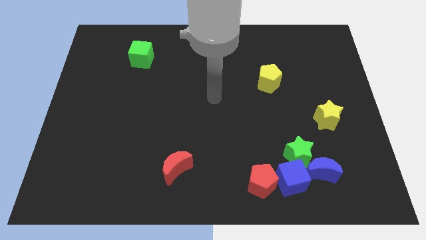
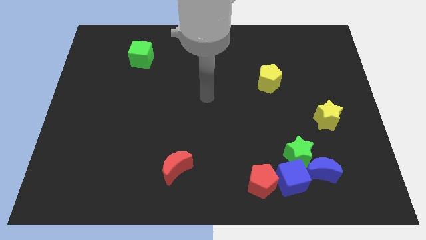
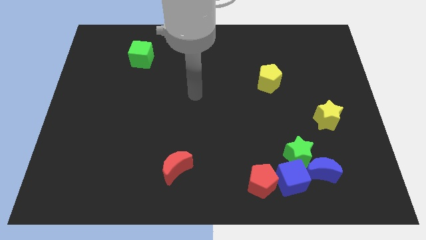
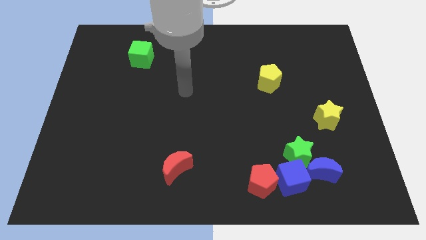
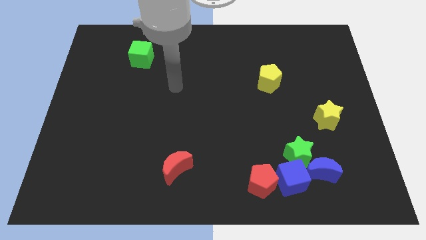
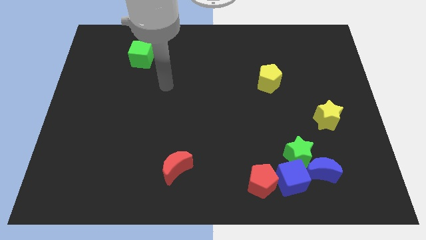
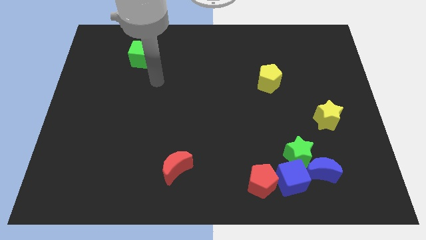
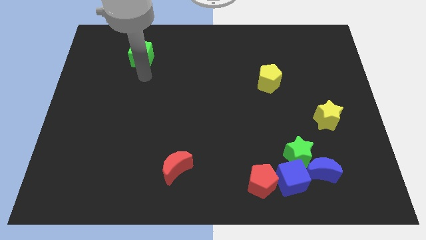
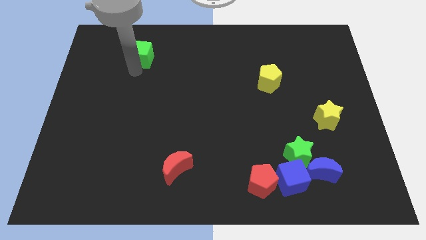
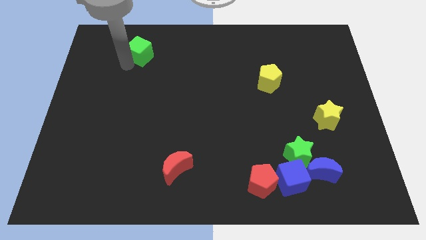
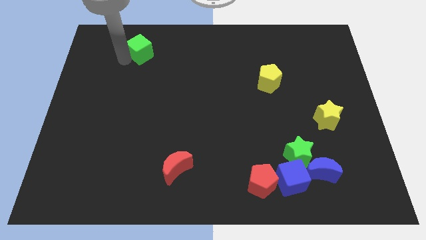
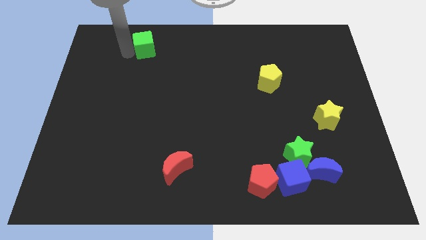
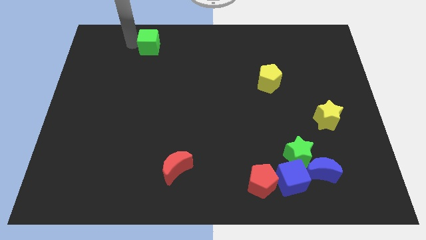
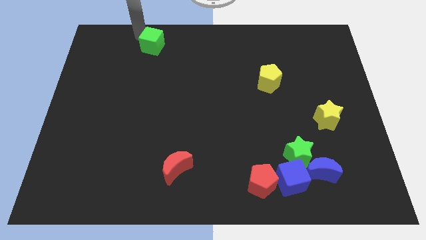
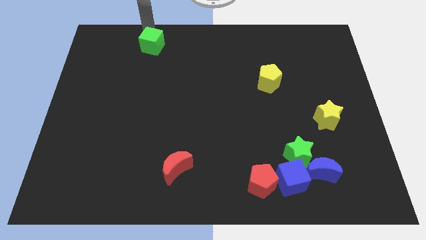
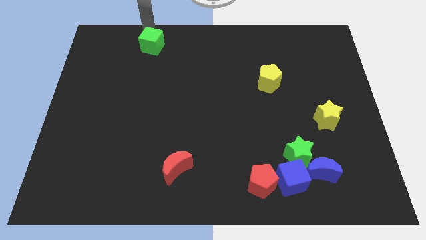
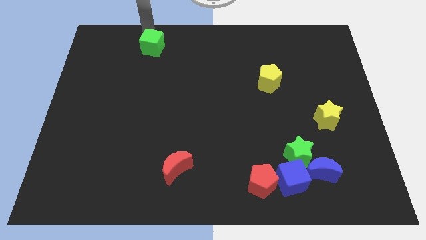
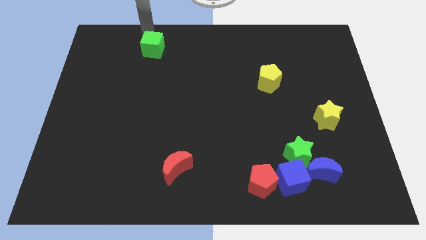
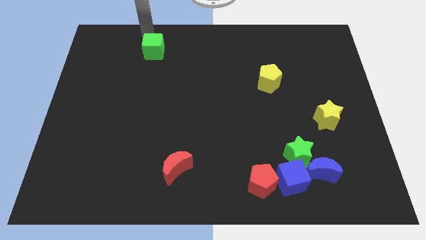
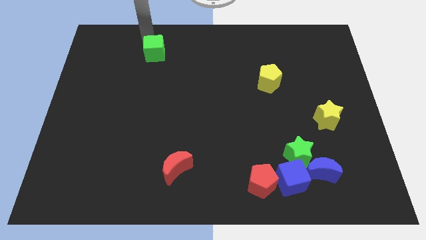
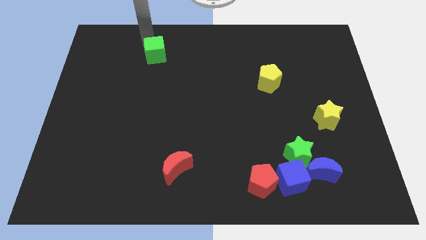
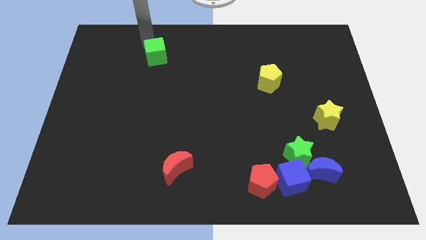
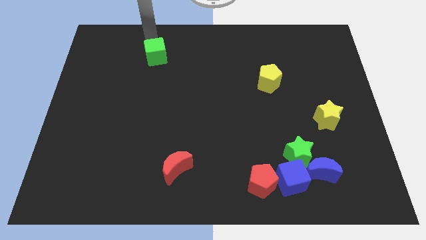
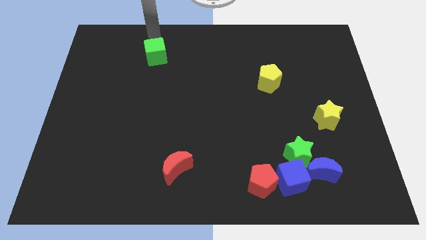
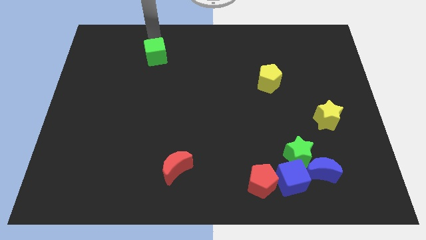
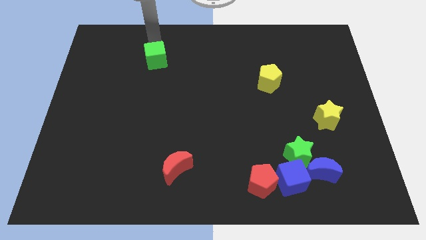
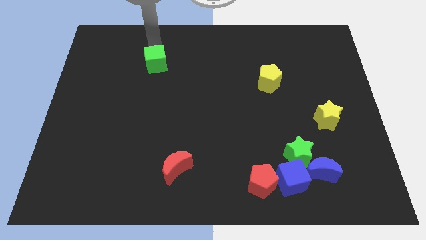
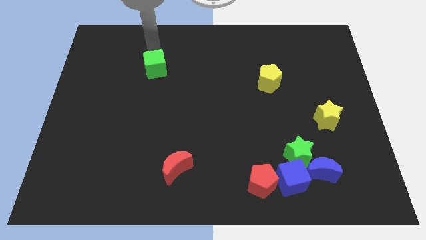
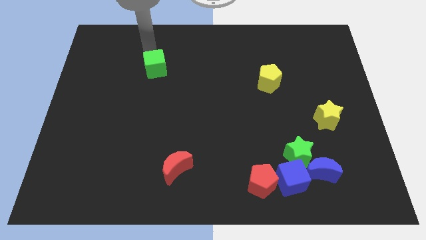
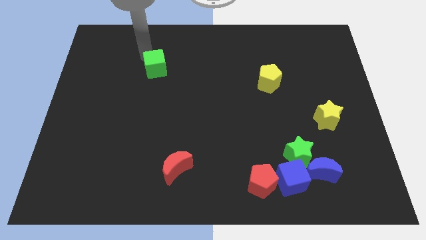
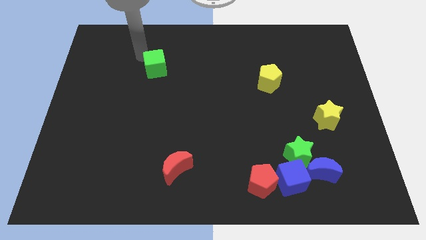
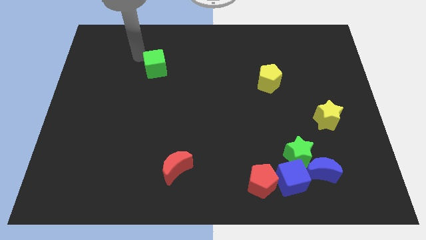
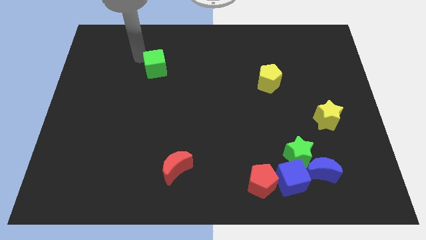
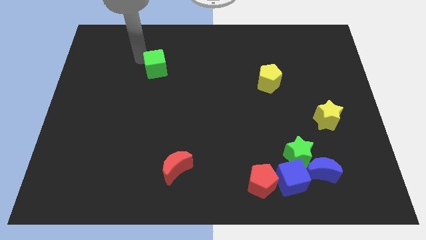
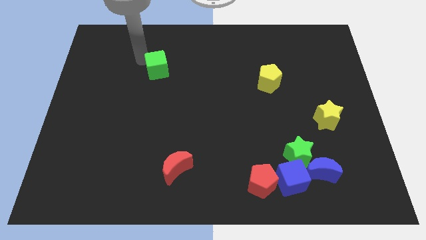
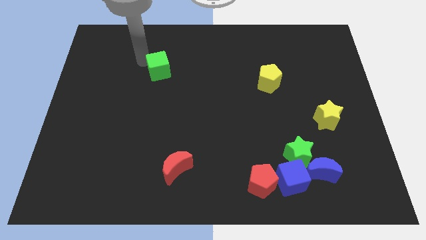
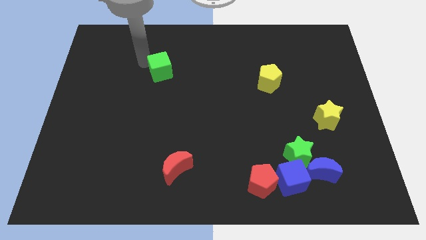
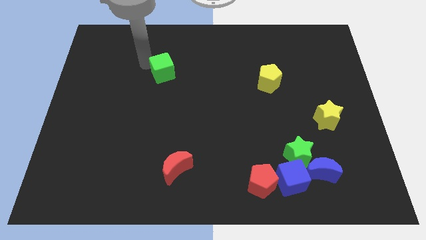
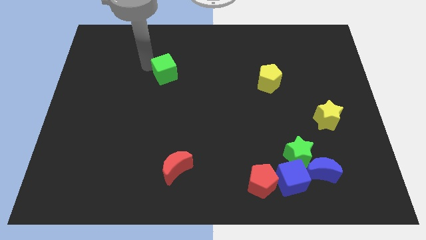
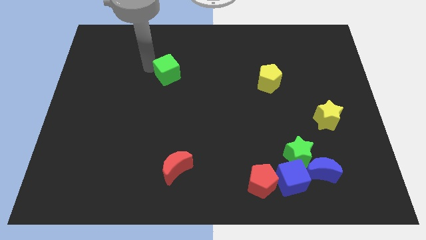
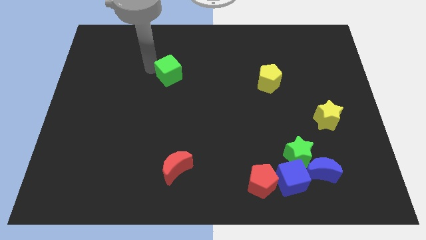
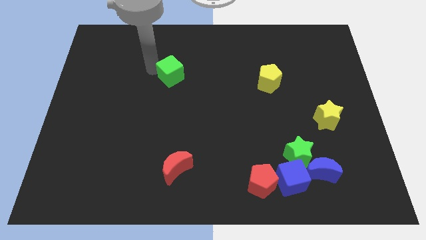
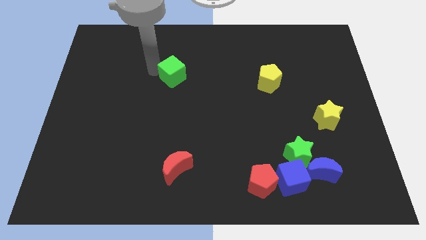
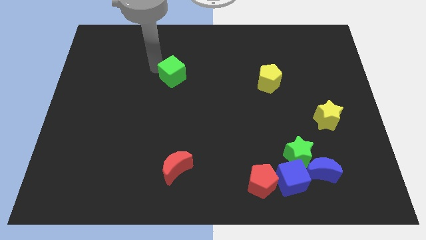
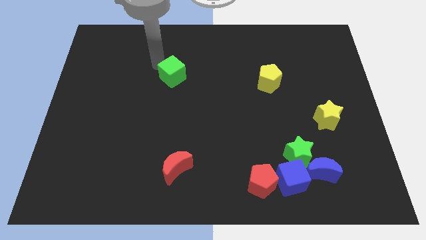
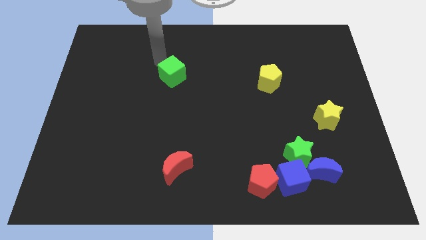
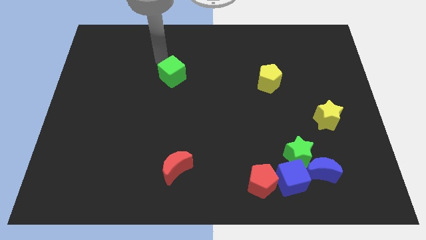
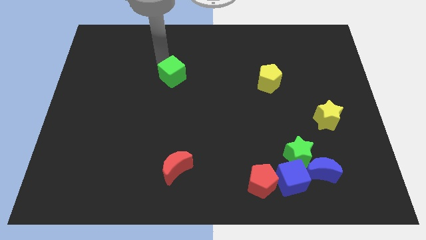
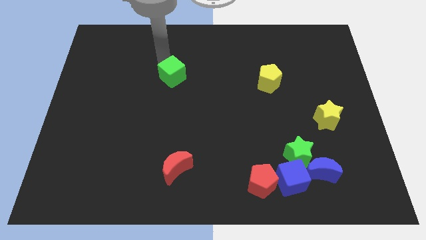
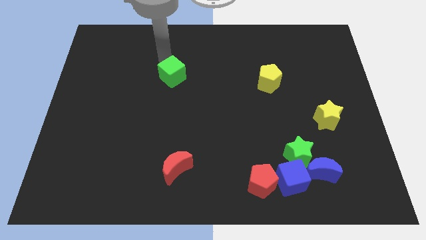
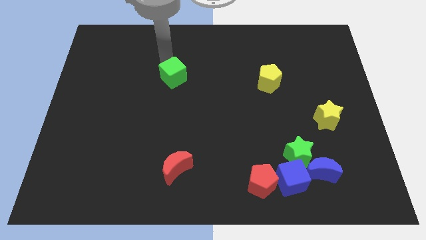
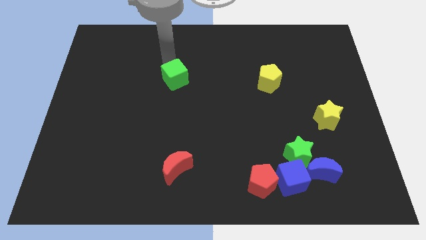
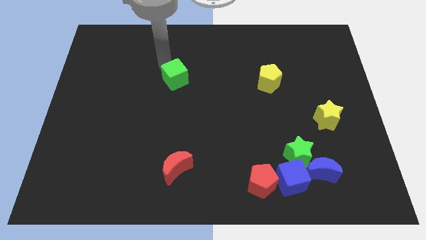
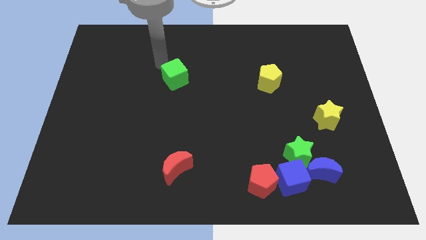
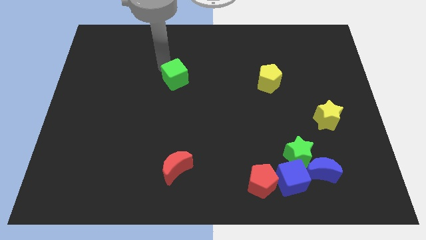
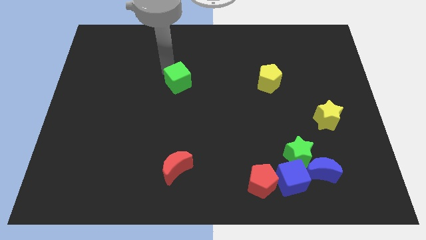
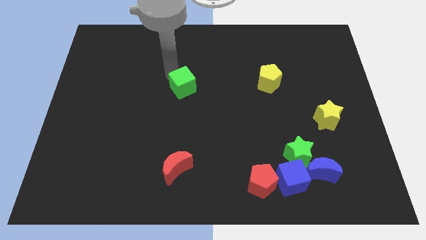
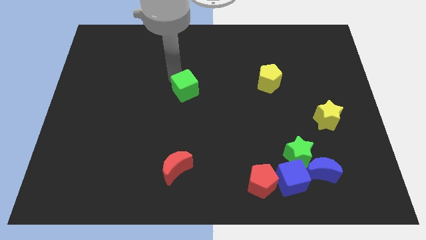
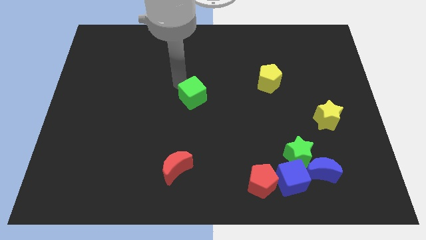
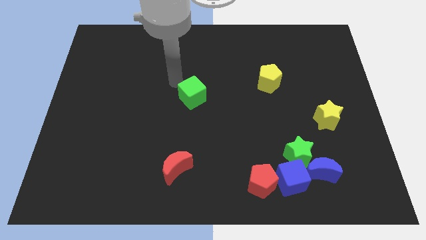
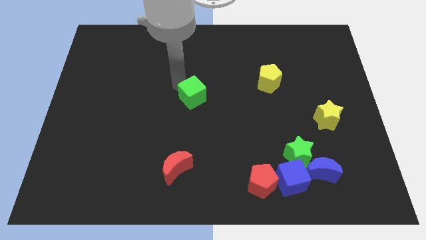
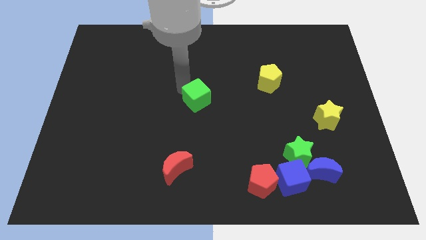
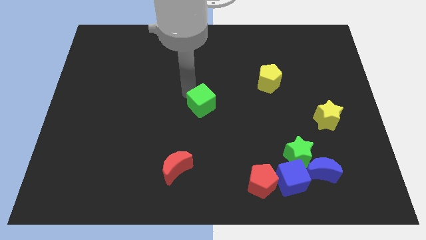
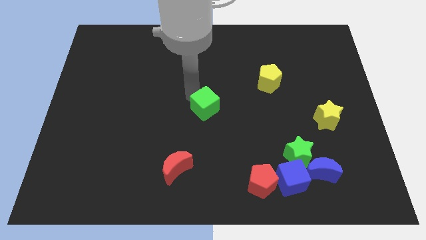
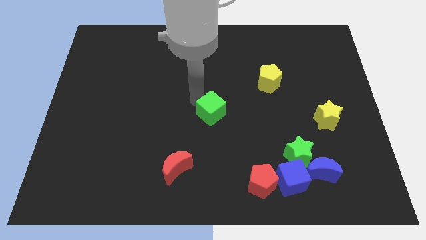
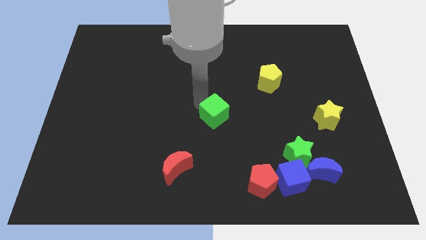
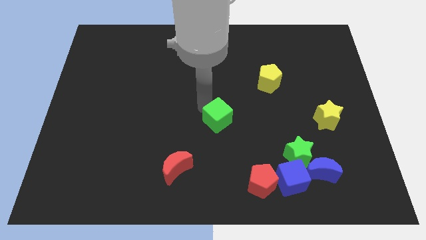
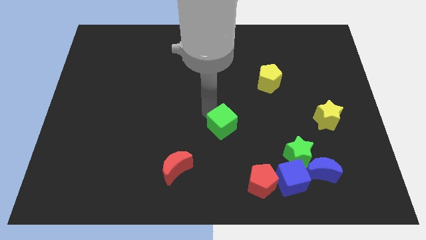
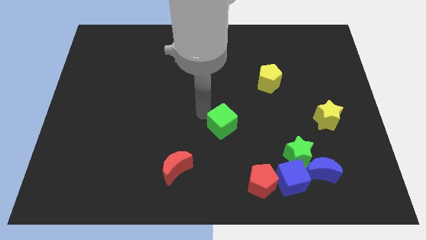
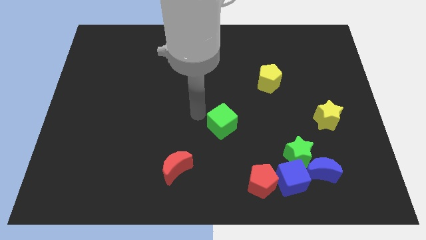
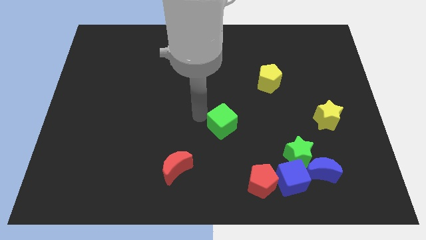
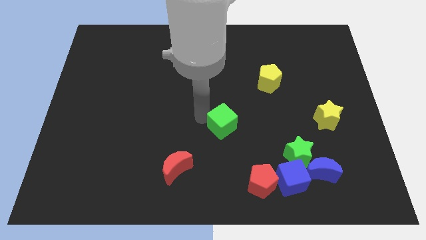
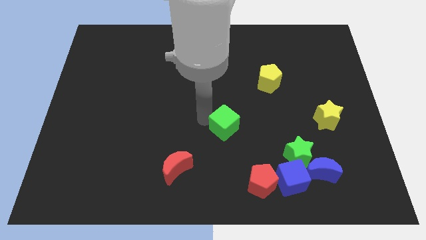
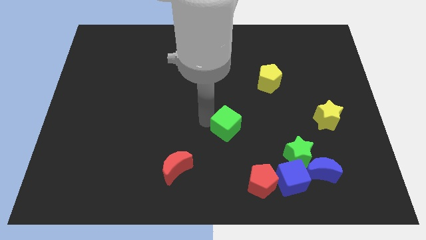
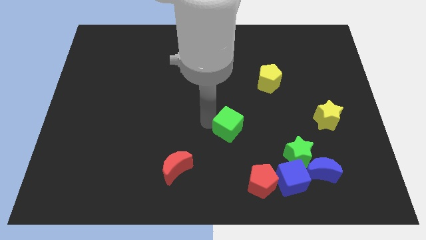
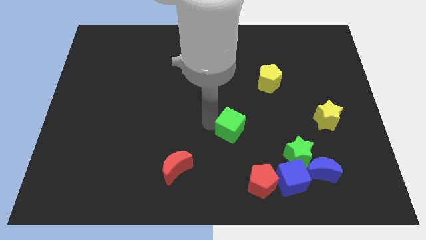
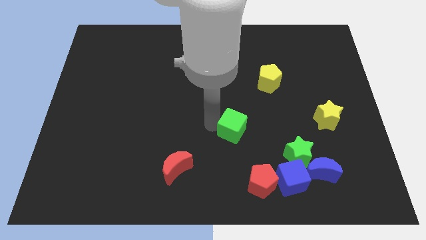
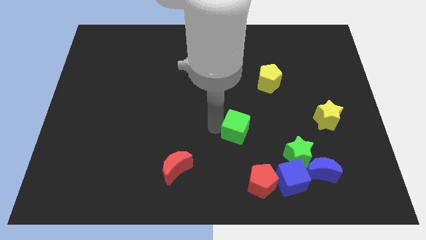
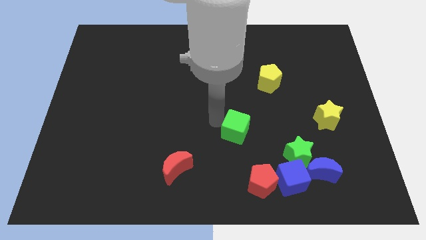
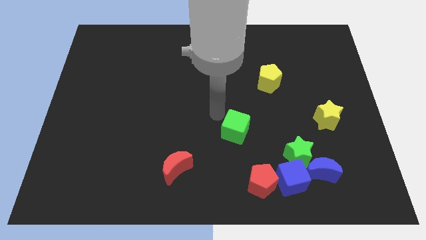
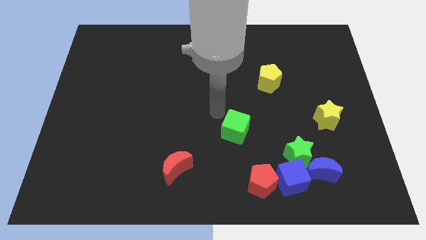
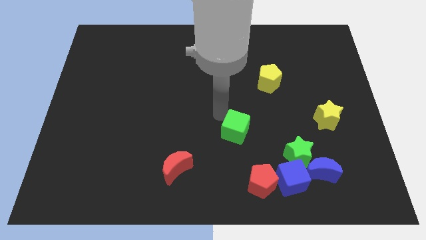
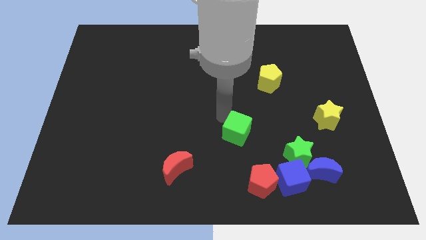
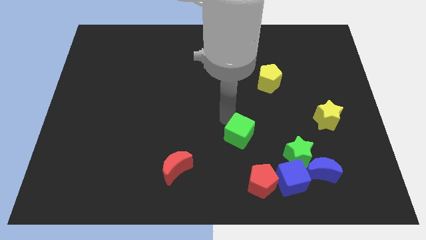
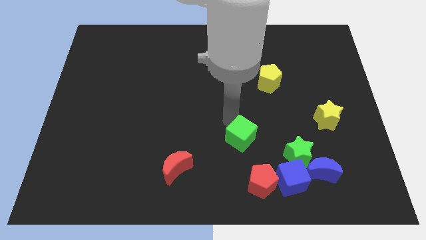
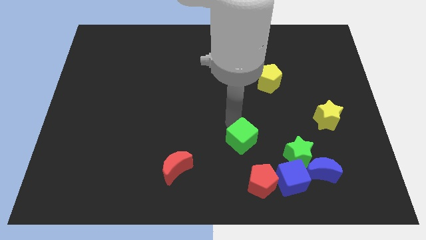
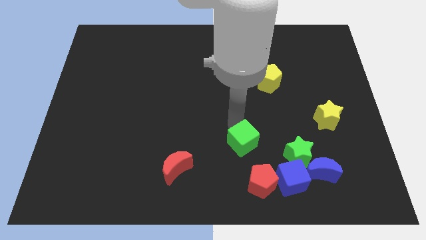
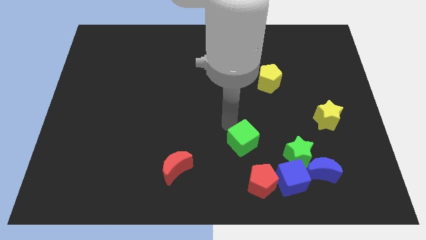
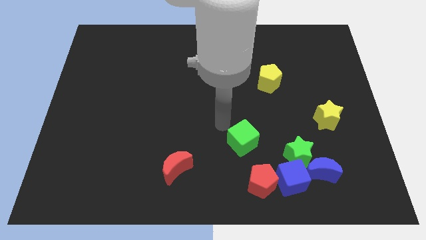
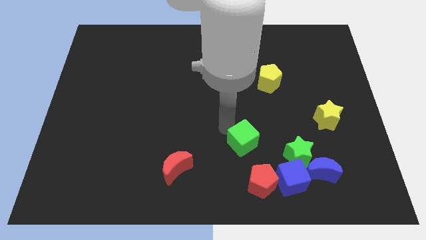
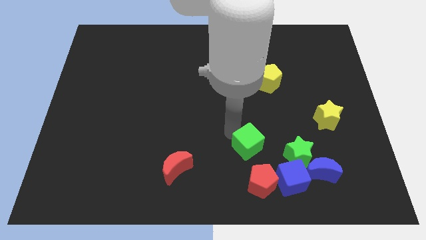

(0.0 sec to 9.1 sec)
slide the green cube diagonally up and to the left of the blue cube
